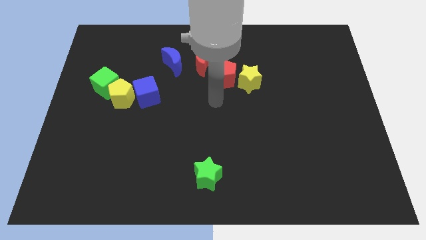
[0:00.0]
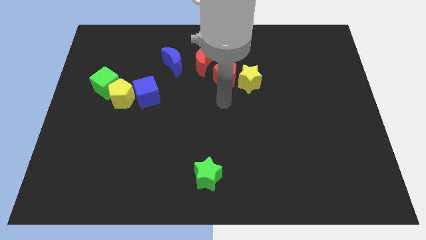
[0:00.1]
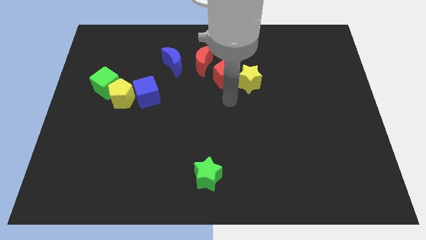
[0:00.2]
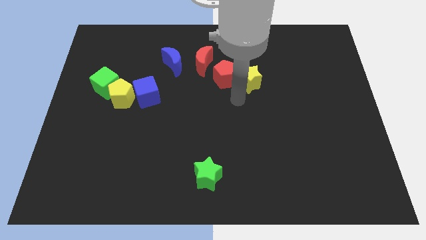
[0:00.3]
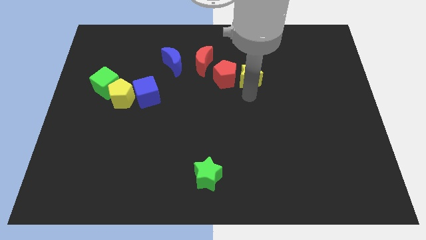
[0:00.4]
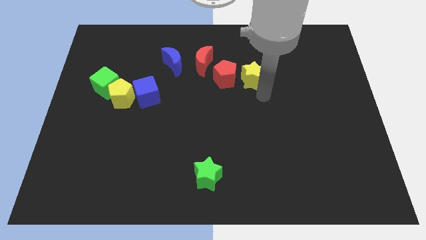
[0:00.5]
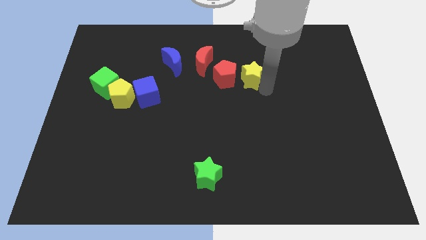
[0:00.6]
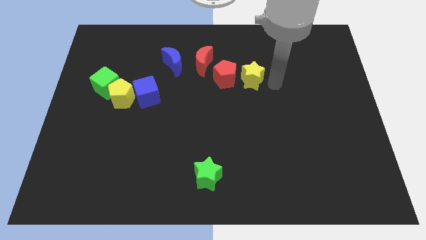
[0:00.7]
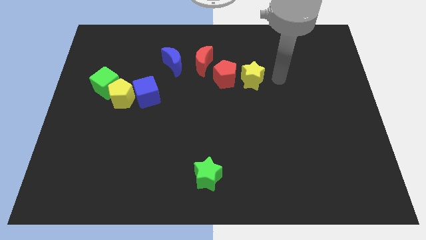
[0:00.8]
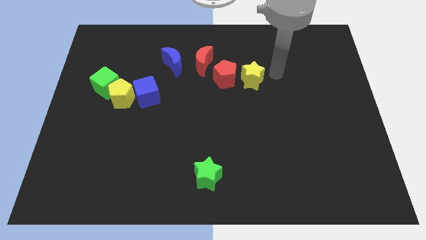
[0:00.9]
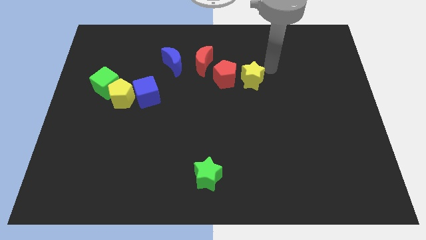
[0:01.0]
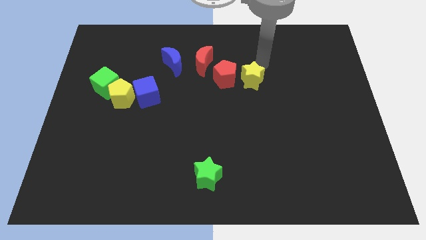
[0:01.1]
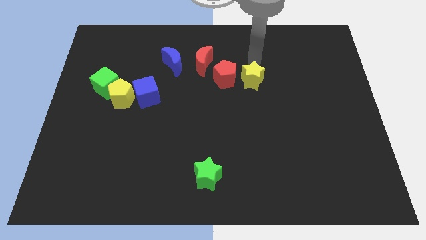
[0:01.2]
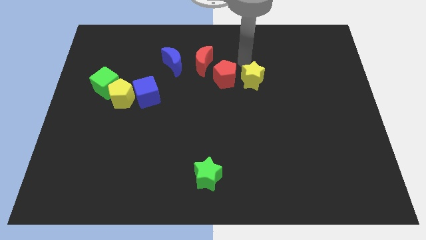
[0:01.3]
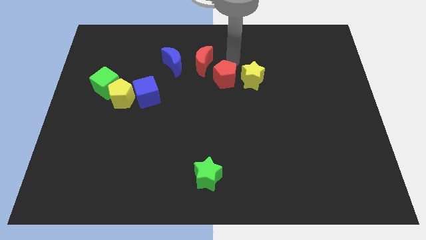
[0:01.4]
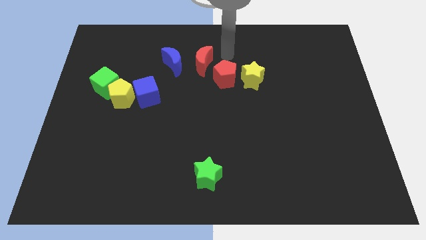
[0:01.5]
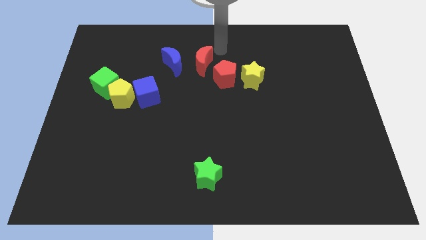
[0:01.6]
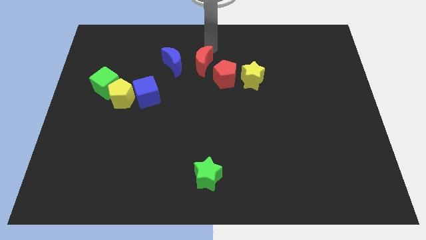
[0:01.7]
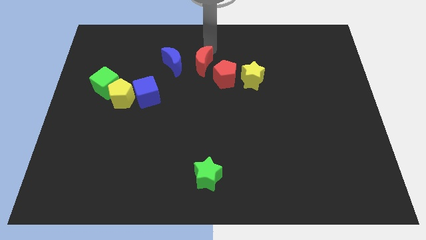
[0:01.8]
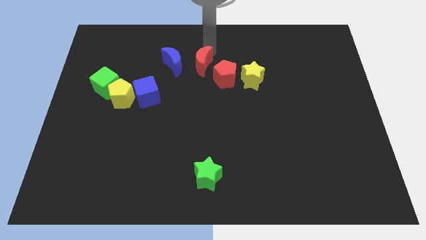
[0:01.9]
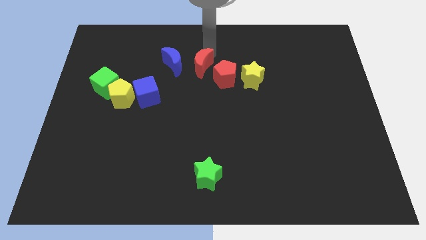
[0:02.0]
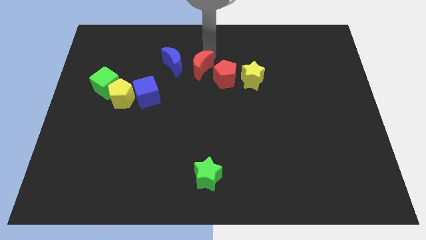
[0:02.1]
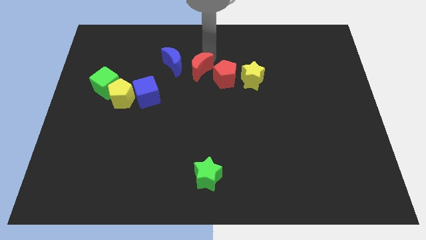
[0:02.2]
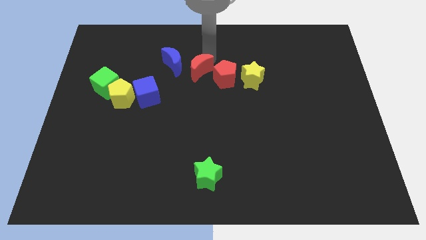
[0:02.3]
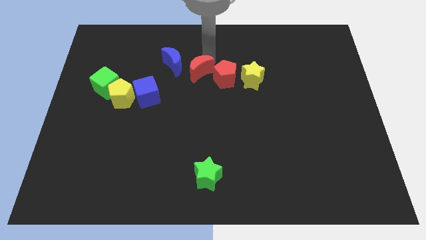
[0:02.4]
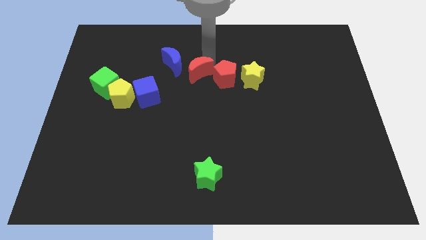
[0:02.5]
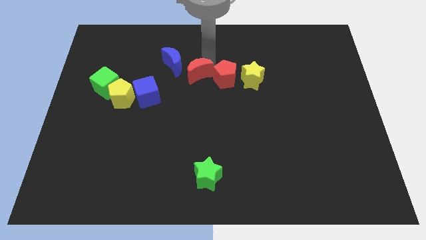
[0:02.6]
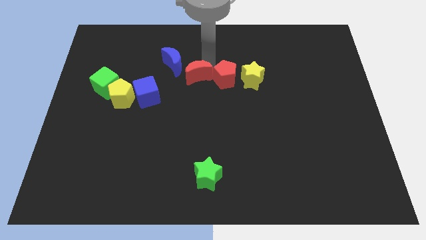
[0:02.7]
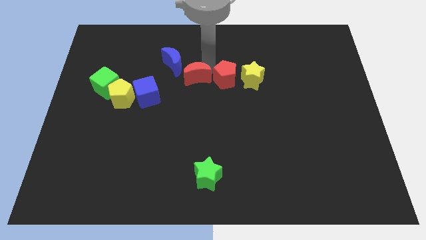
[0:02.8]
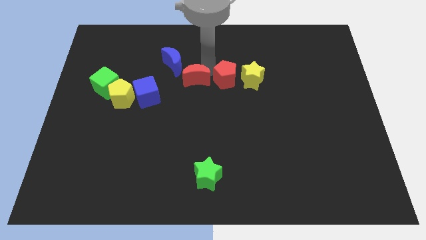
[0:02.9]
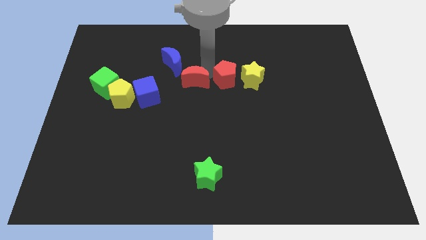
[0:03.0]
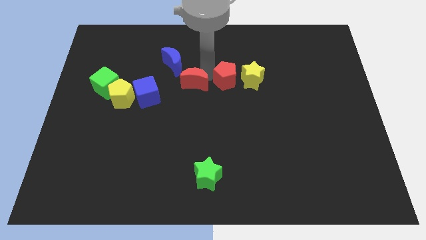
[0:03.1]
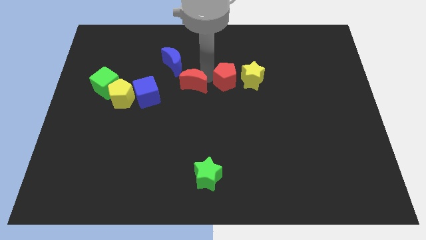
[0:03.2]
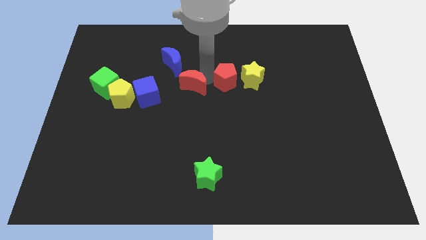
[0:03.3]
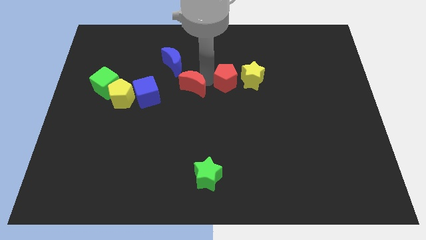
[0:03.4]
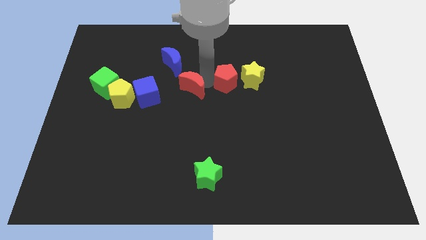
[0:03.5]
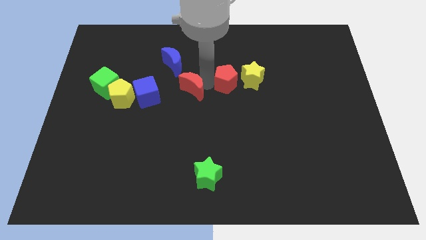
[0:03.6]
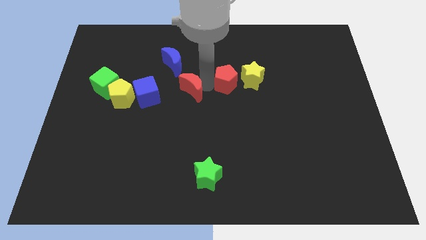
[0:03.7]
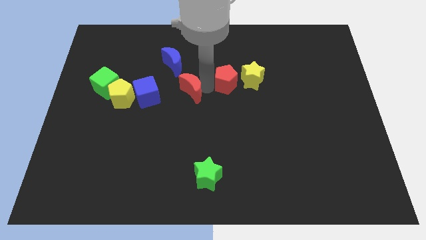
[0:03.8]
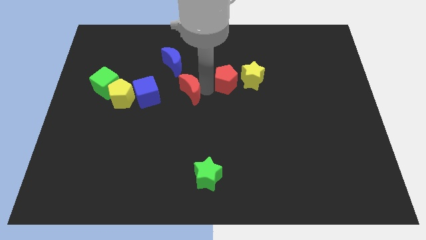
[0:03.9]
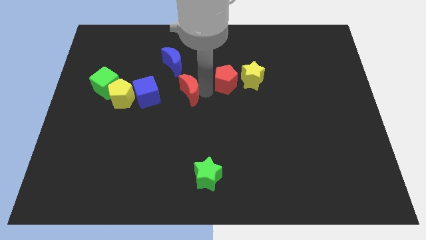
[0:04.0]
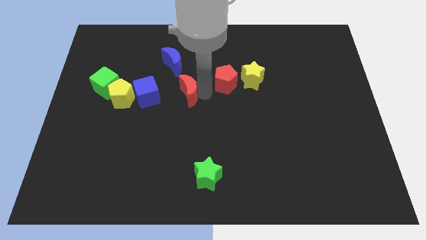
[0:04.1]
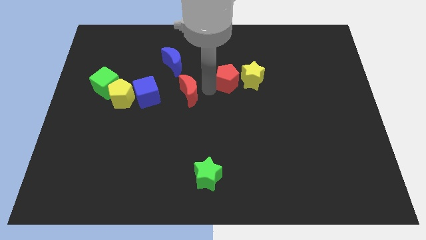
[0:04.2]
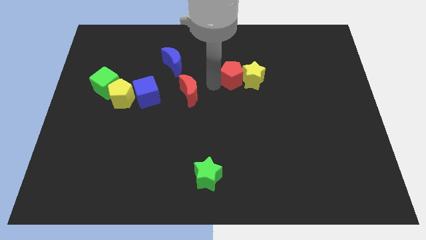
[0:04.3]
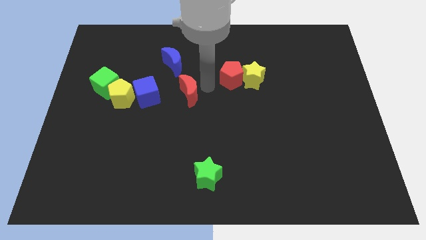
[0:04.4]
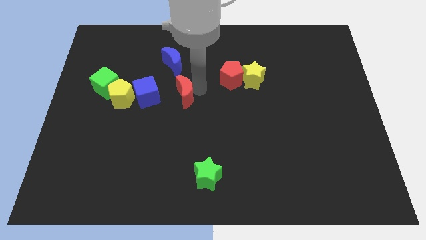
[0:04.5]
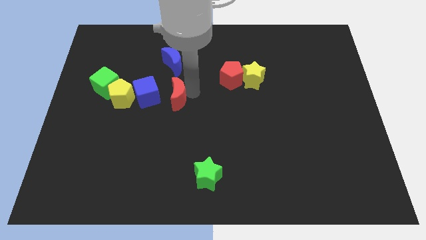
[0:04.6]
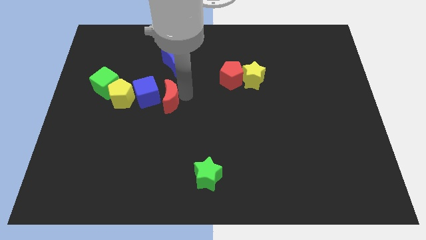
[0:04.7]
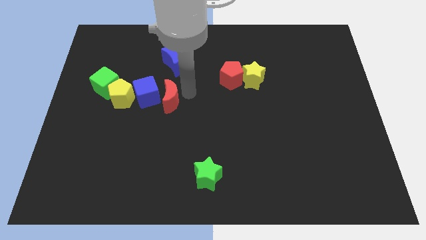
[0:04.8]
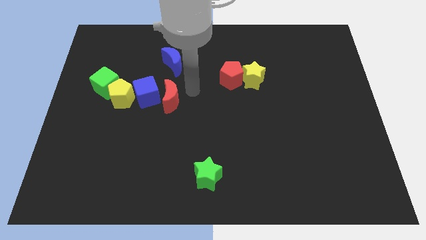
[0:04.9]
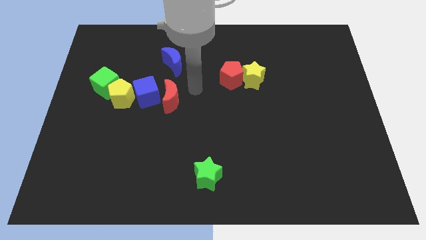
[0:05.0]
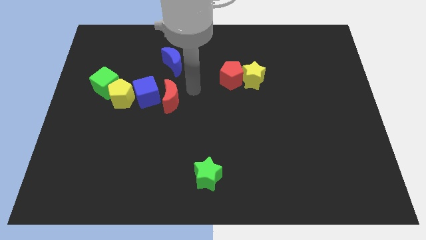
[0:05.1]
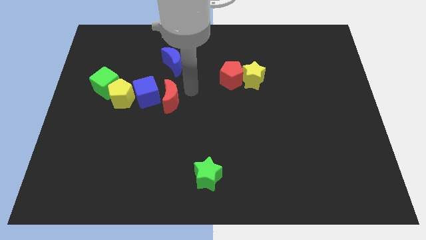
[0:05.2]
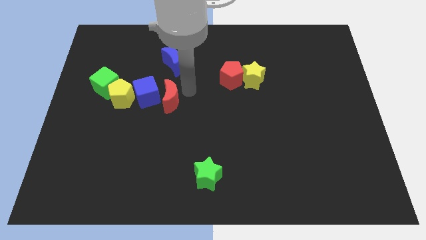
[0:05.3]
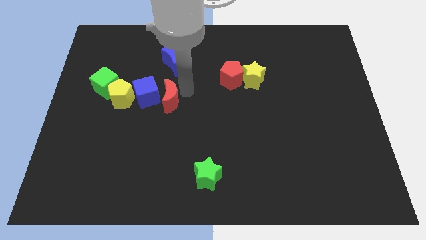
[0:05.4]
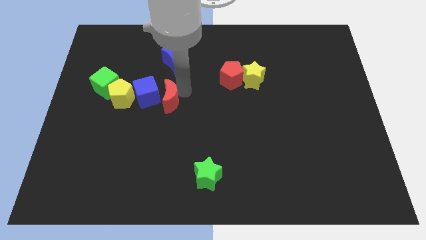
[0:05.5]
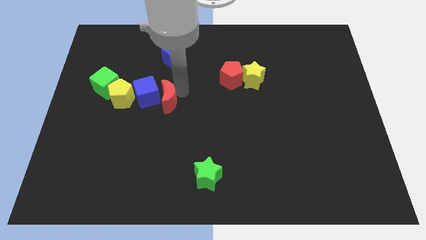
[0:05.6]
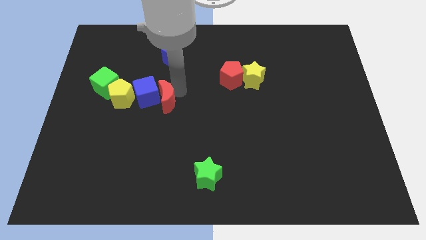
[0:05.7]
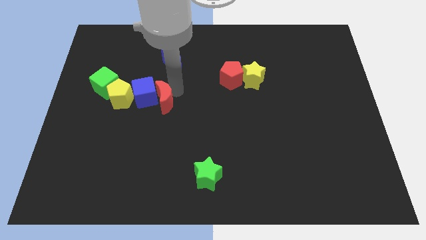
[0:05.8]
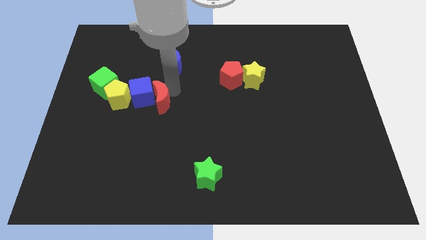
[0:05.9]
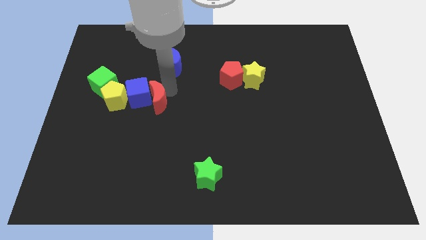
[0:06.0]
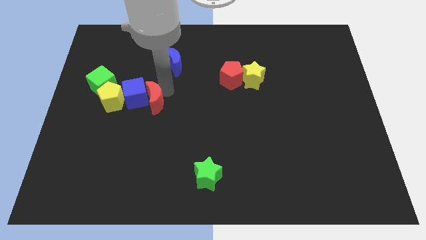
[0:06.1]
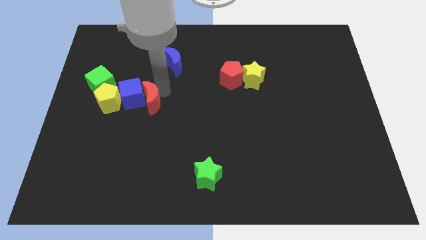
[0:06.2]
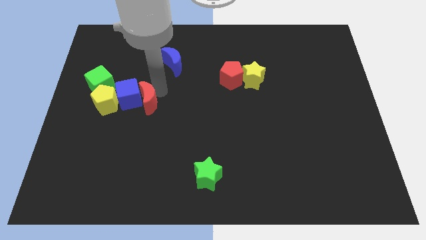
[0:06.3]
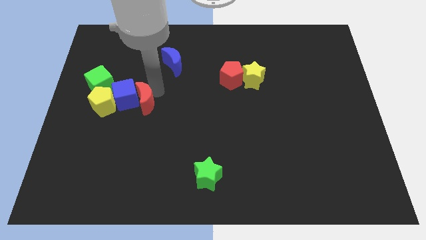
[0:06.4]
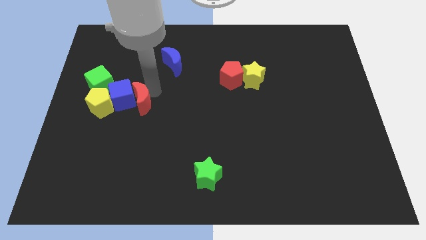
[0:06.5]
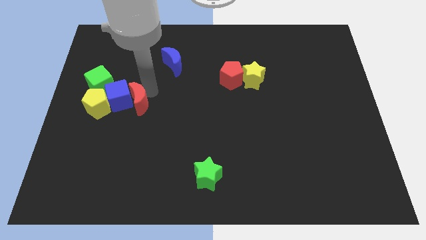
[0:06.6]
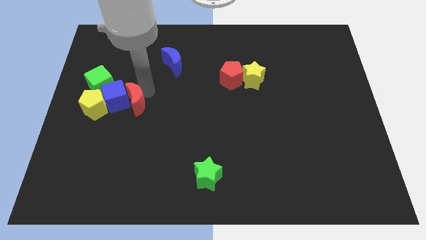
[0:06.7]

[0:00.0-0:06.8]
push the red moon downwards and to the left diagonally

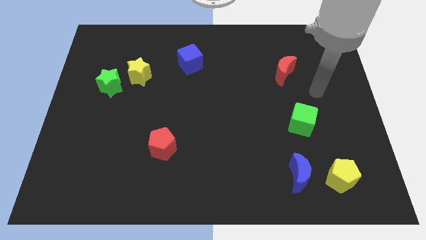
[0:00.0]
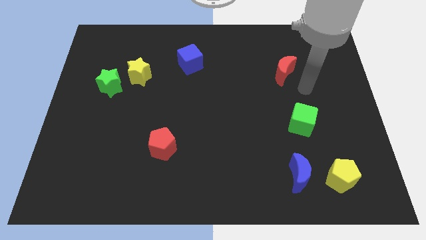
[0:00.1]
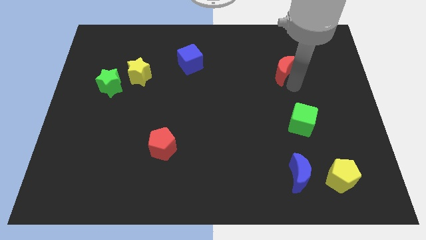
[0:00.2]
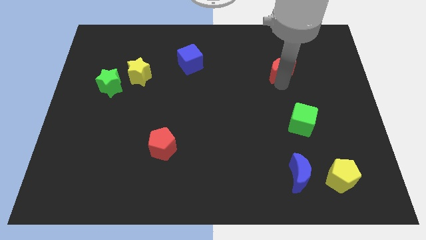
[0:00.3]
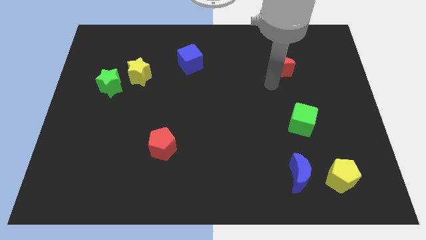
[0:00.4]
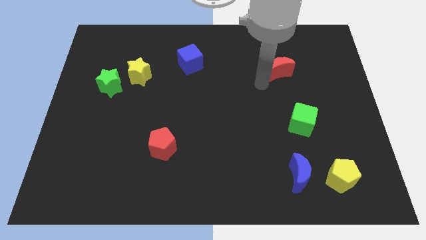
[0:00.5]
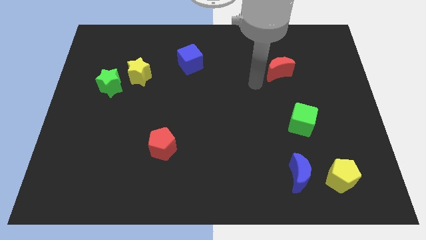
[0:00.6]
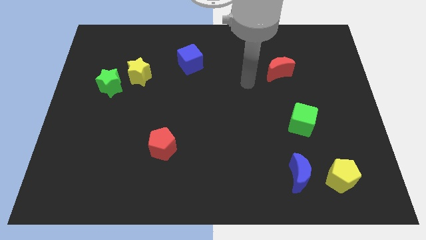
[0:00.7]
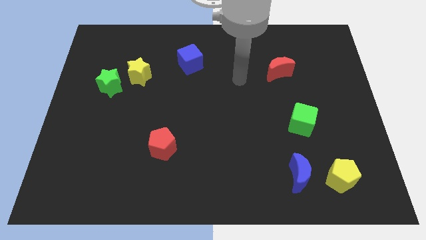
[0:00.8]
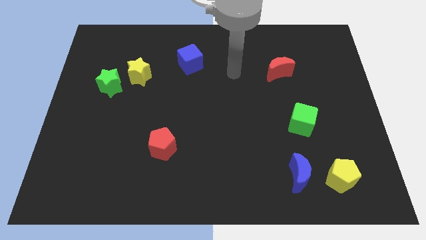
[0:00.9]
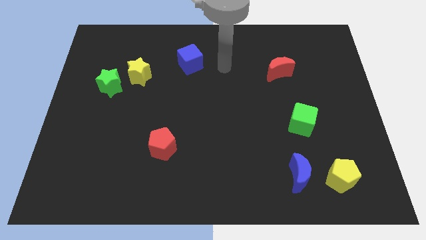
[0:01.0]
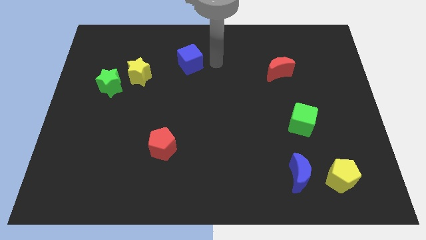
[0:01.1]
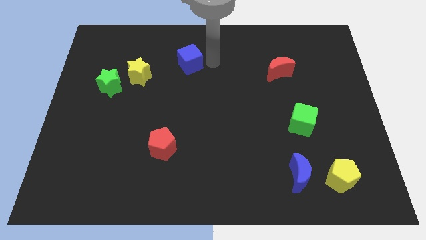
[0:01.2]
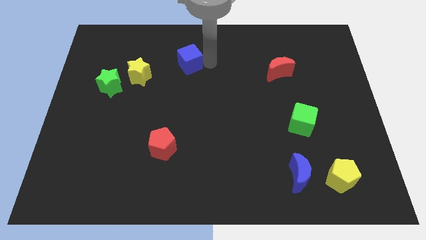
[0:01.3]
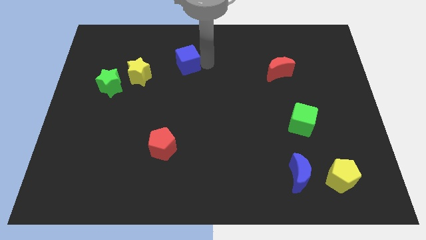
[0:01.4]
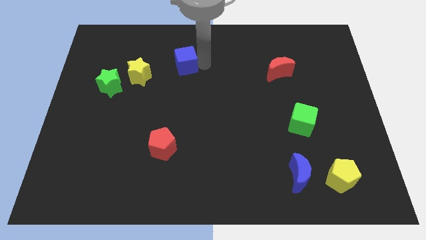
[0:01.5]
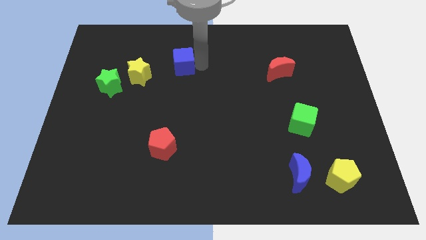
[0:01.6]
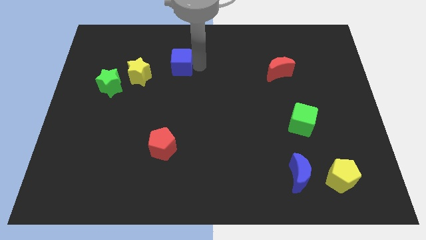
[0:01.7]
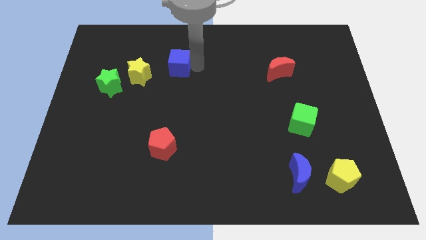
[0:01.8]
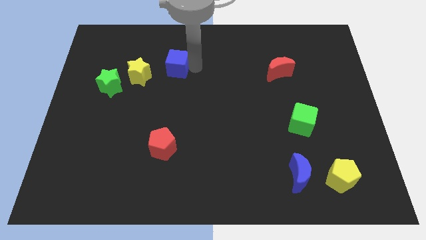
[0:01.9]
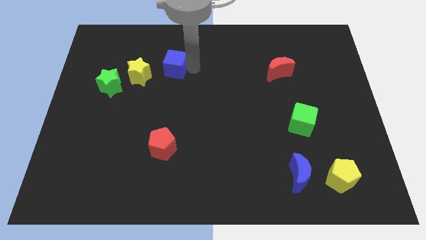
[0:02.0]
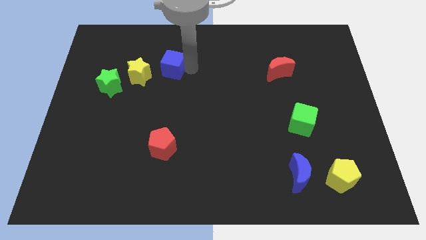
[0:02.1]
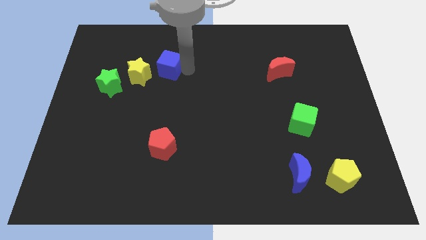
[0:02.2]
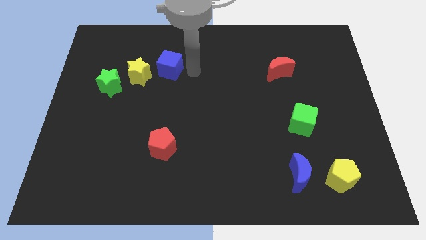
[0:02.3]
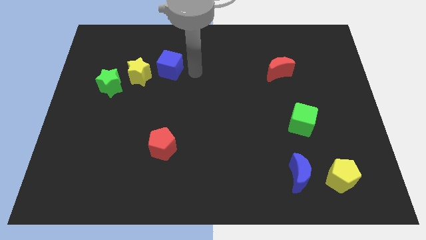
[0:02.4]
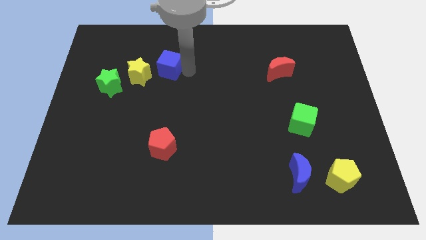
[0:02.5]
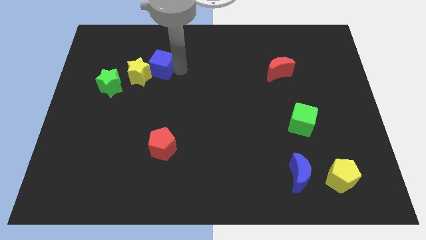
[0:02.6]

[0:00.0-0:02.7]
move the blue cube left slightly
